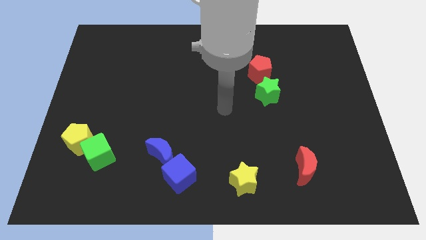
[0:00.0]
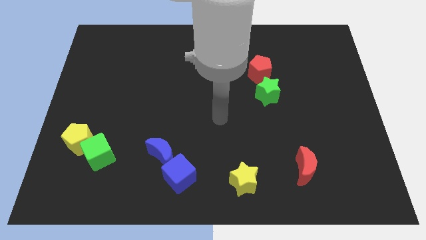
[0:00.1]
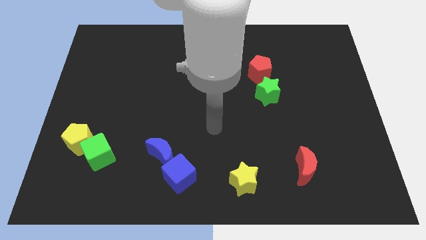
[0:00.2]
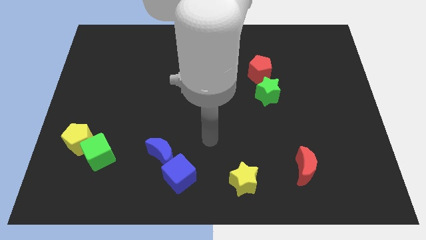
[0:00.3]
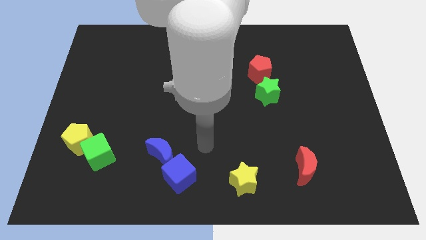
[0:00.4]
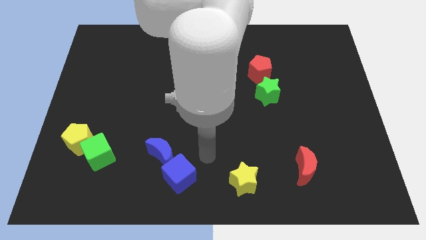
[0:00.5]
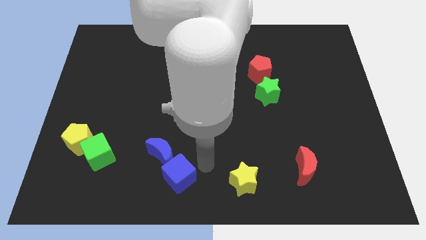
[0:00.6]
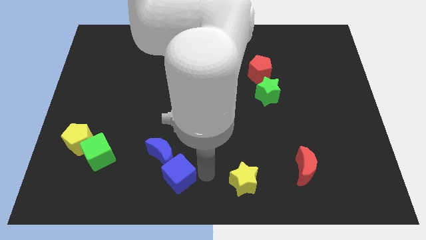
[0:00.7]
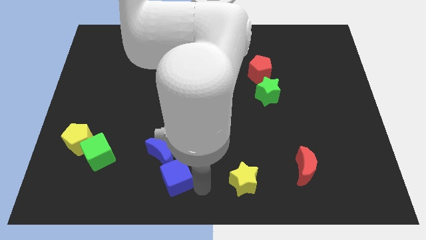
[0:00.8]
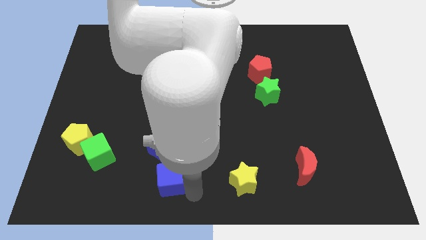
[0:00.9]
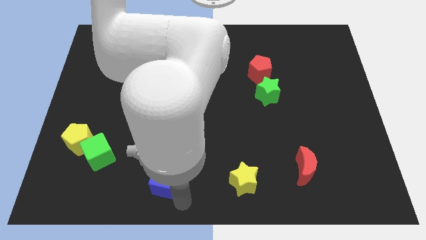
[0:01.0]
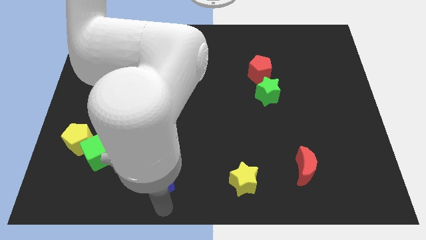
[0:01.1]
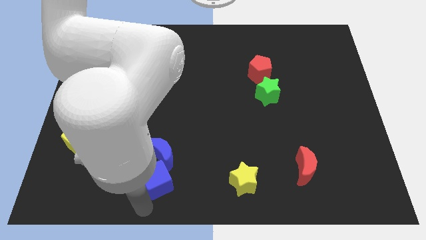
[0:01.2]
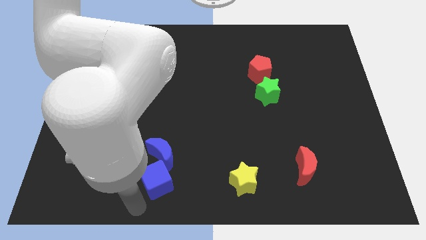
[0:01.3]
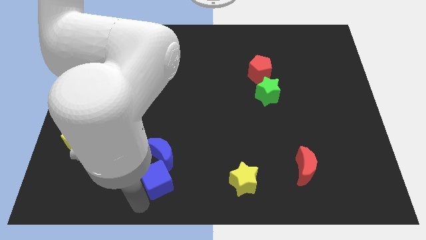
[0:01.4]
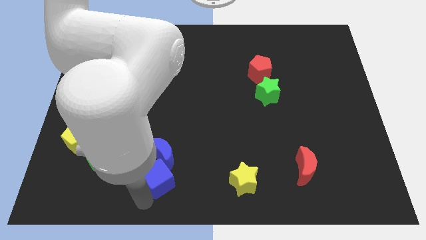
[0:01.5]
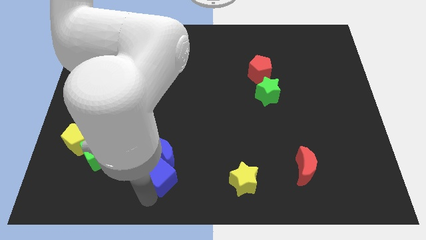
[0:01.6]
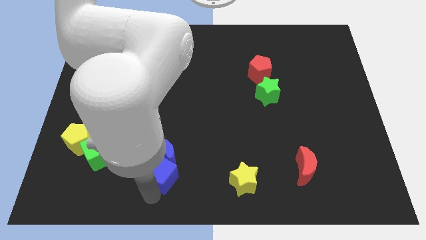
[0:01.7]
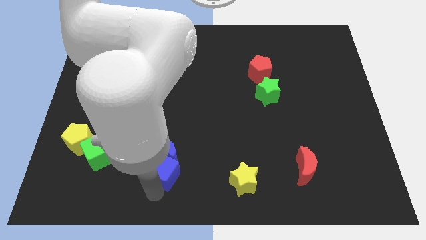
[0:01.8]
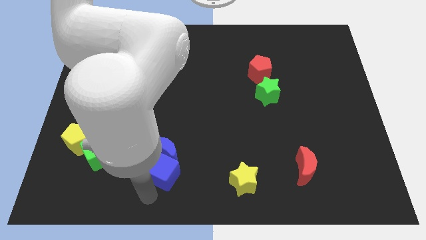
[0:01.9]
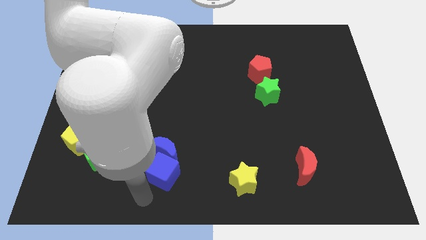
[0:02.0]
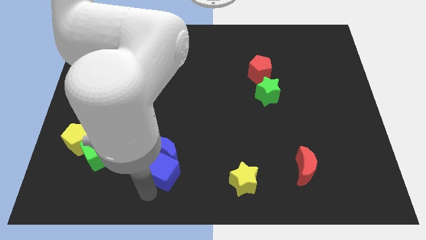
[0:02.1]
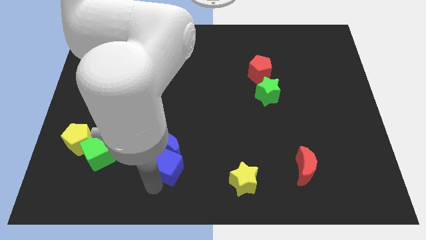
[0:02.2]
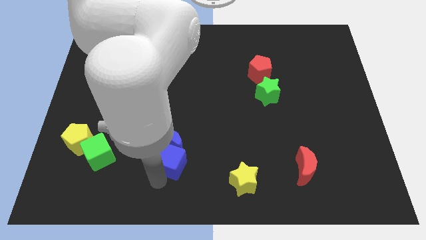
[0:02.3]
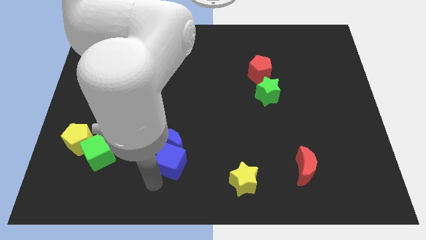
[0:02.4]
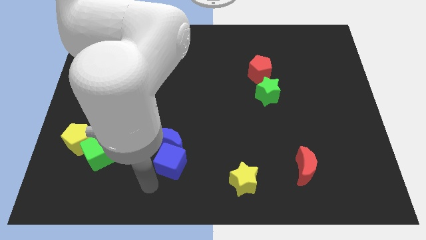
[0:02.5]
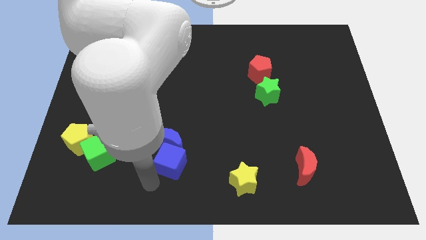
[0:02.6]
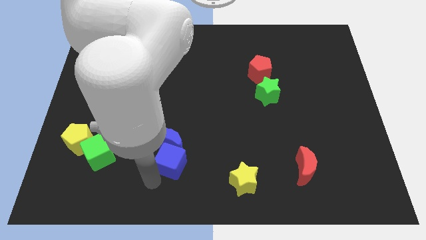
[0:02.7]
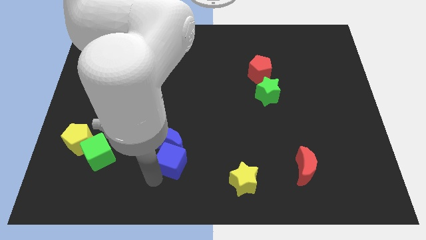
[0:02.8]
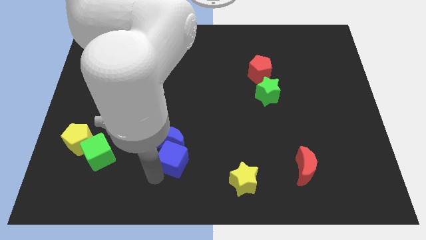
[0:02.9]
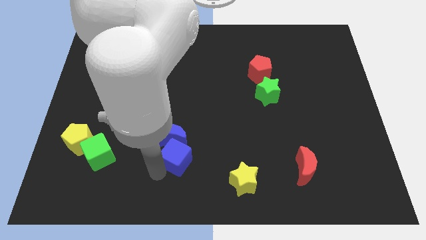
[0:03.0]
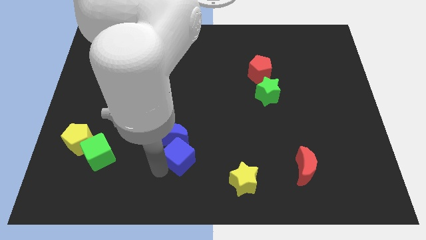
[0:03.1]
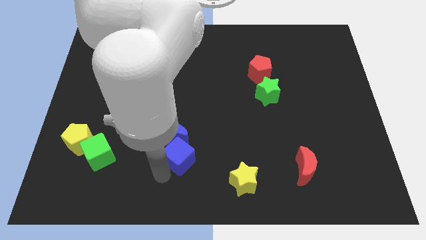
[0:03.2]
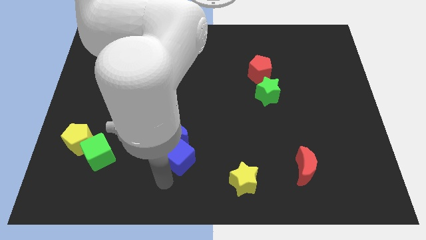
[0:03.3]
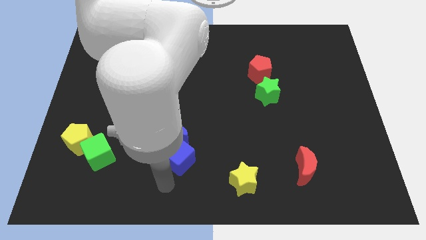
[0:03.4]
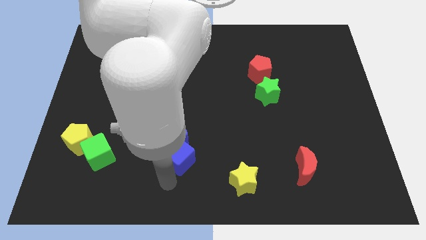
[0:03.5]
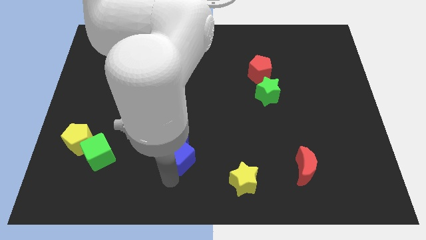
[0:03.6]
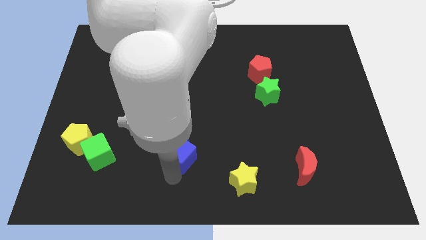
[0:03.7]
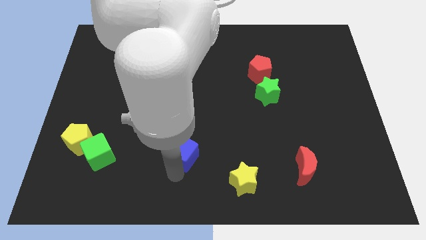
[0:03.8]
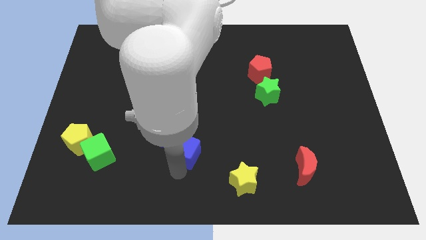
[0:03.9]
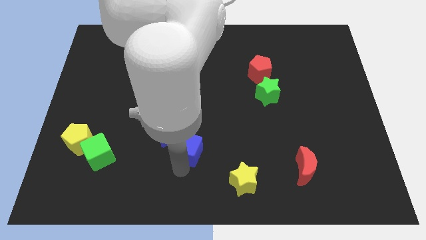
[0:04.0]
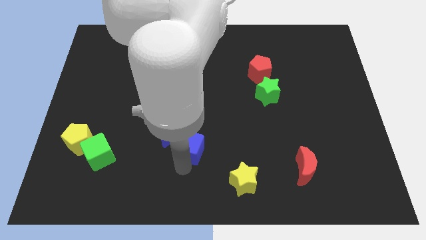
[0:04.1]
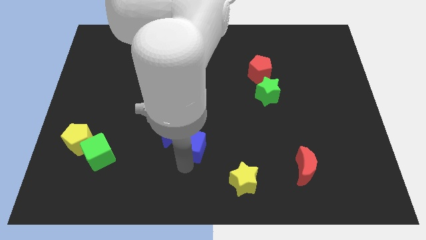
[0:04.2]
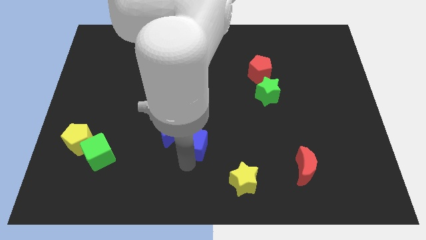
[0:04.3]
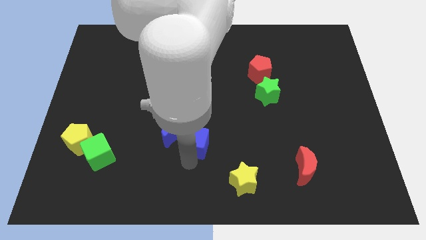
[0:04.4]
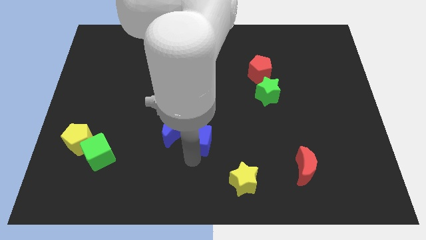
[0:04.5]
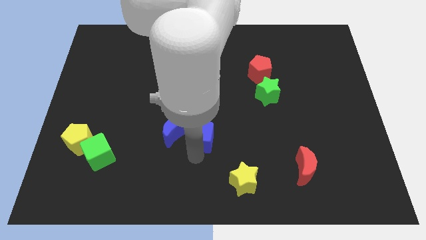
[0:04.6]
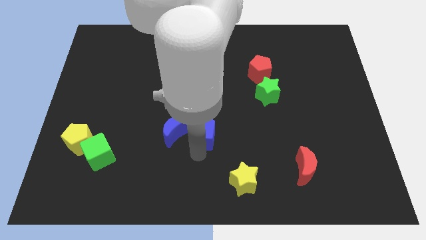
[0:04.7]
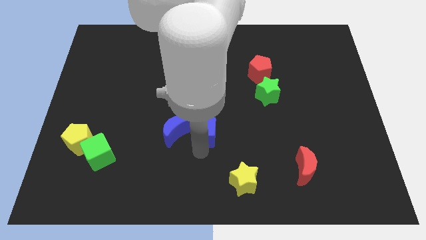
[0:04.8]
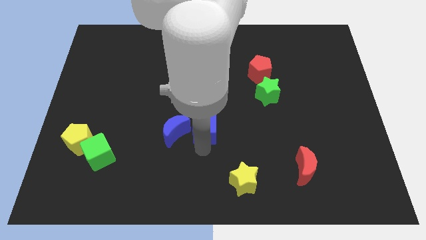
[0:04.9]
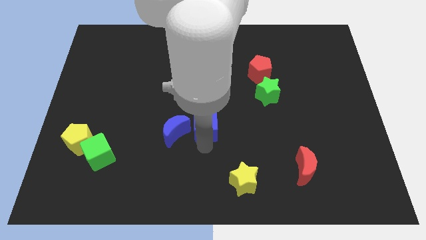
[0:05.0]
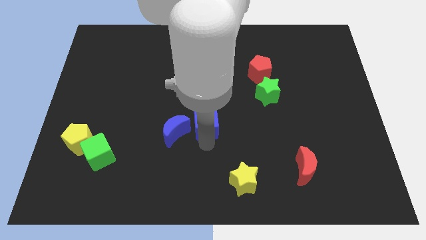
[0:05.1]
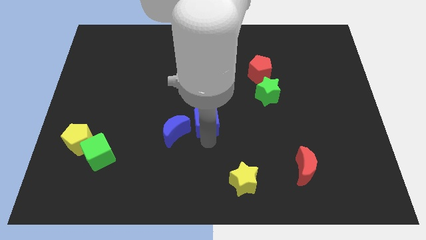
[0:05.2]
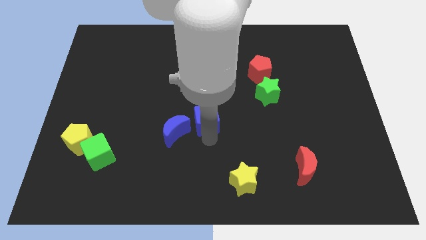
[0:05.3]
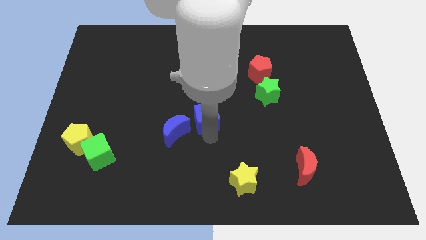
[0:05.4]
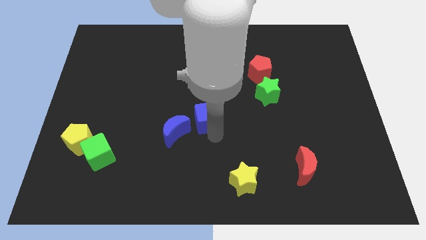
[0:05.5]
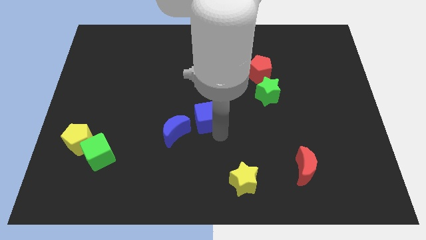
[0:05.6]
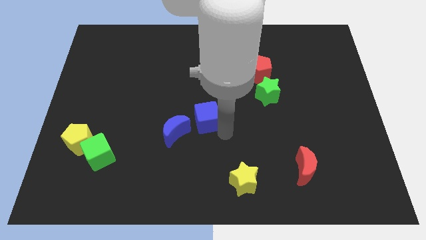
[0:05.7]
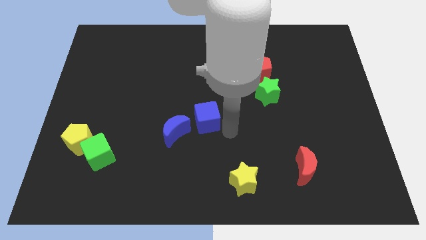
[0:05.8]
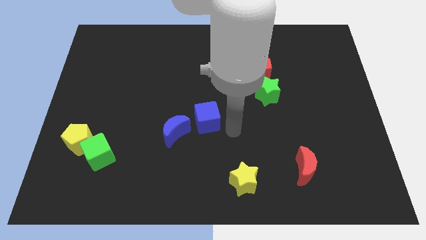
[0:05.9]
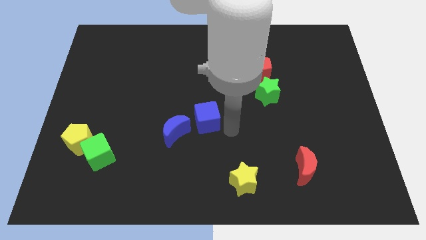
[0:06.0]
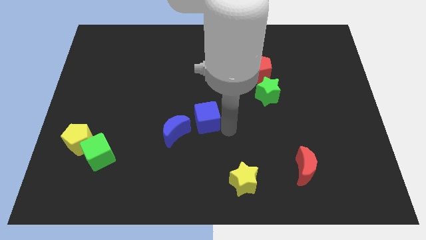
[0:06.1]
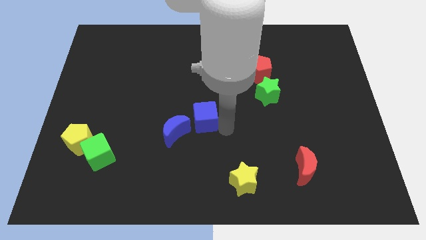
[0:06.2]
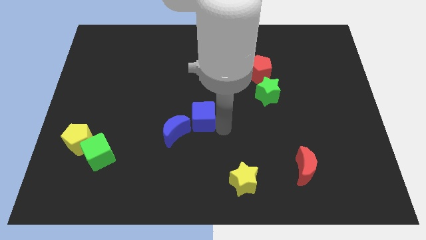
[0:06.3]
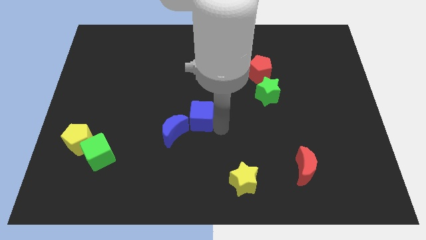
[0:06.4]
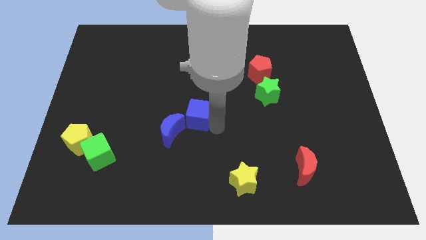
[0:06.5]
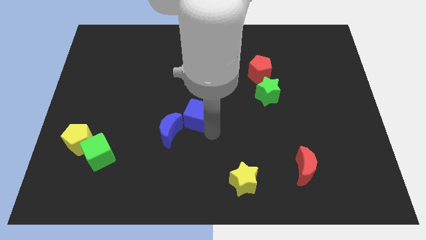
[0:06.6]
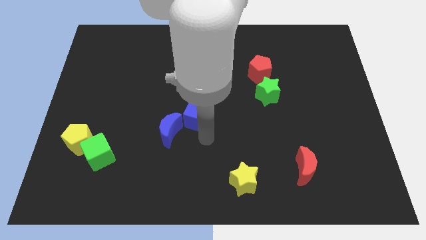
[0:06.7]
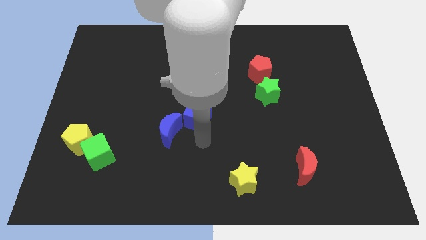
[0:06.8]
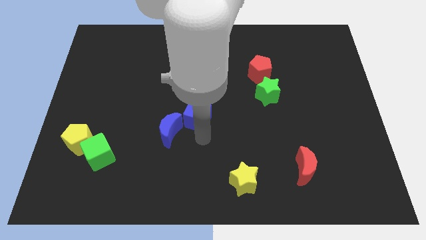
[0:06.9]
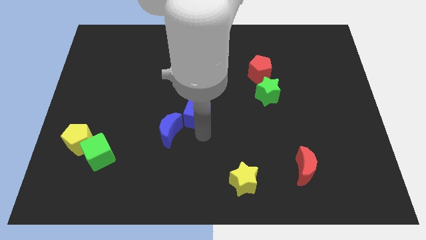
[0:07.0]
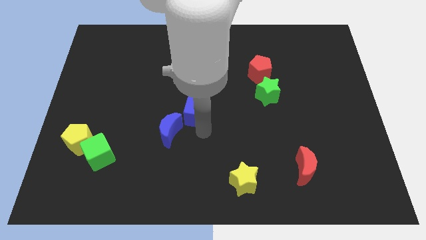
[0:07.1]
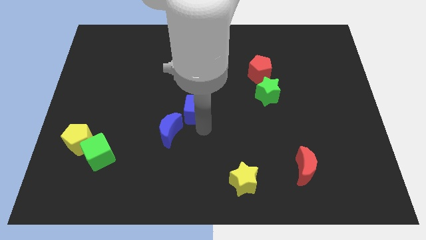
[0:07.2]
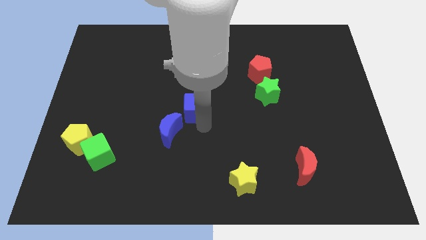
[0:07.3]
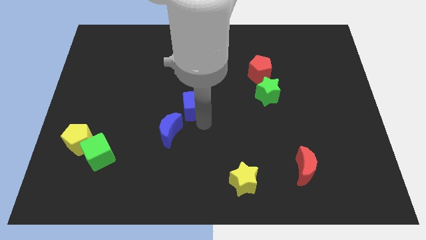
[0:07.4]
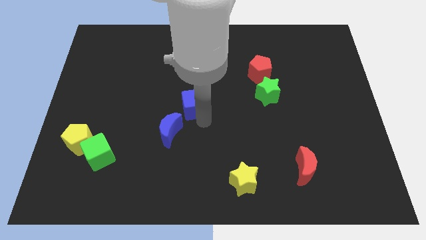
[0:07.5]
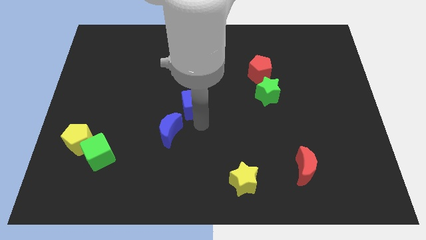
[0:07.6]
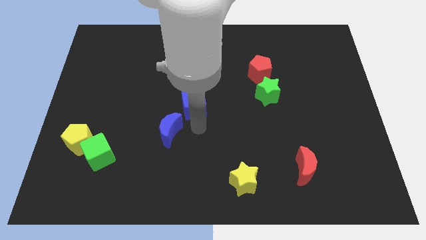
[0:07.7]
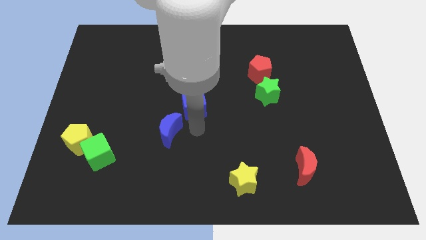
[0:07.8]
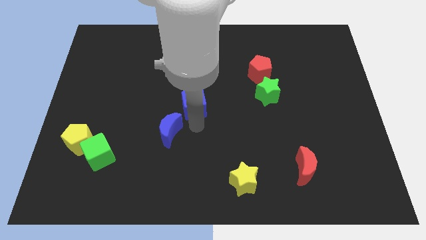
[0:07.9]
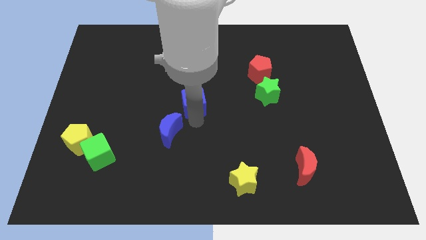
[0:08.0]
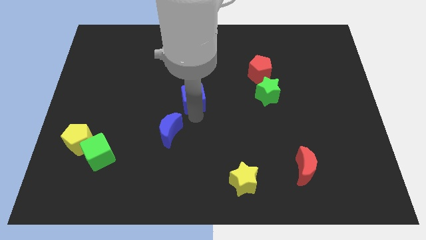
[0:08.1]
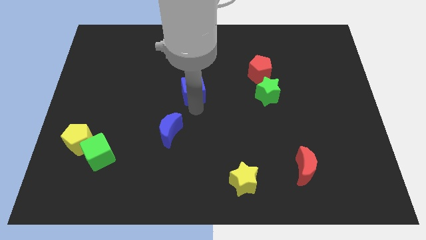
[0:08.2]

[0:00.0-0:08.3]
move the blue cube up
